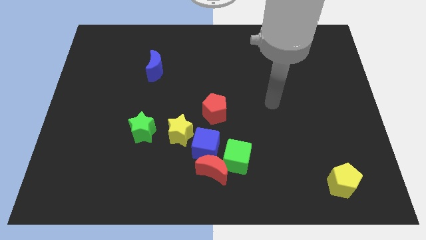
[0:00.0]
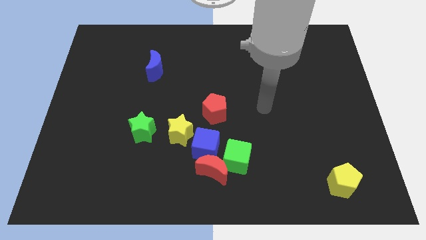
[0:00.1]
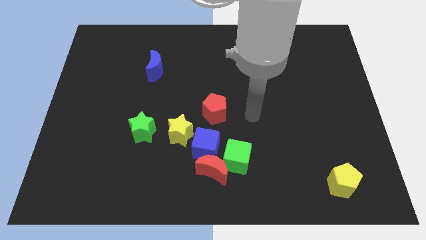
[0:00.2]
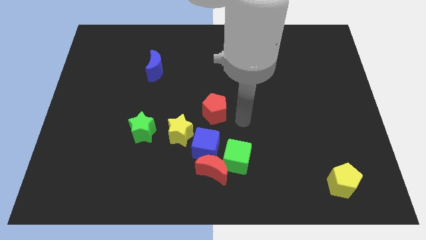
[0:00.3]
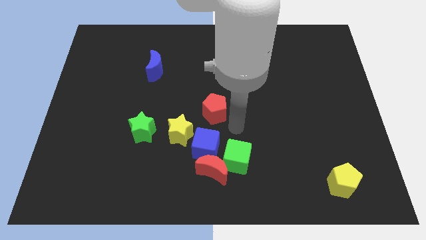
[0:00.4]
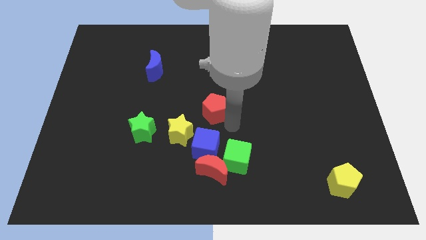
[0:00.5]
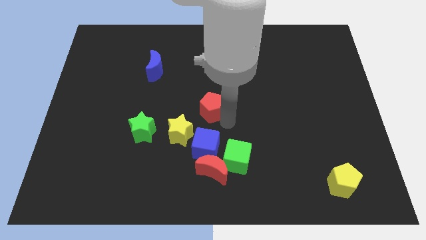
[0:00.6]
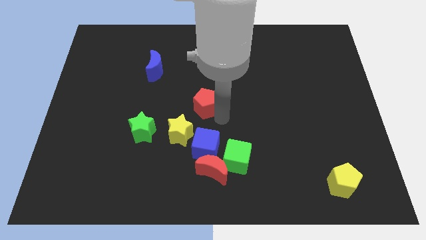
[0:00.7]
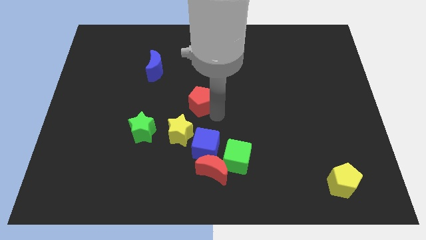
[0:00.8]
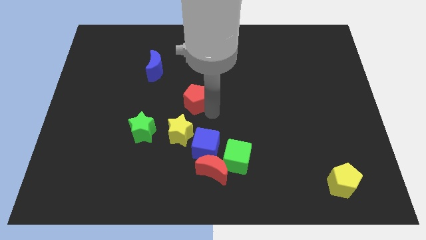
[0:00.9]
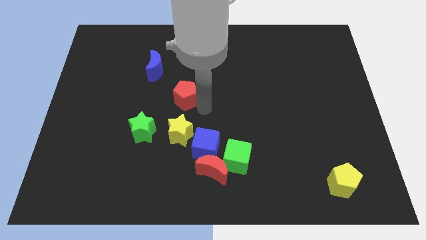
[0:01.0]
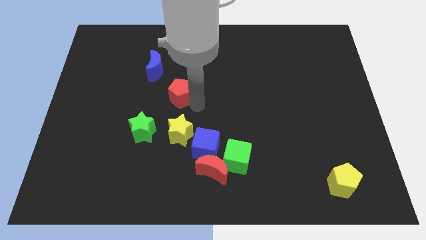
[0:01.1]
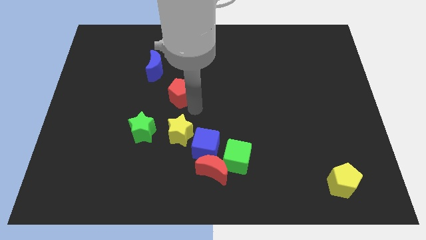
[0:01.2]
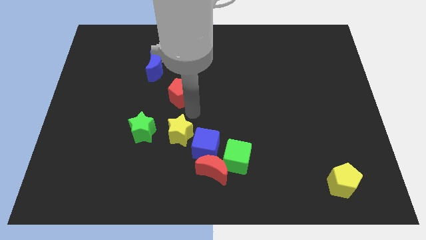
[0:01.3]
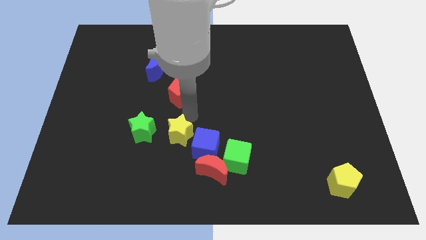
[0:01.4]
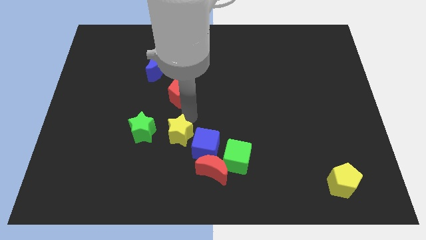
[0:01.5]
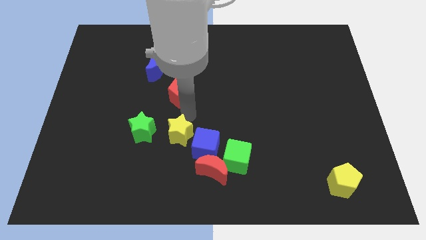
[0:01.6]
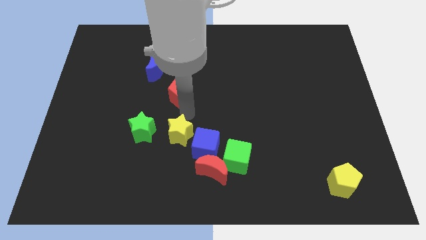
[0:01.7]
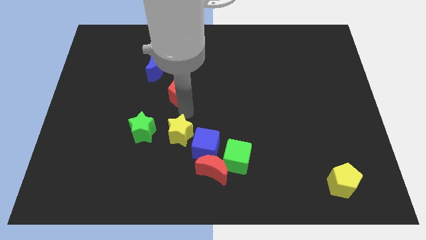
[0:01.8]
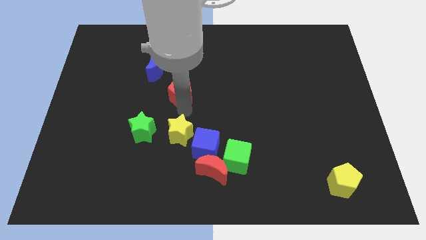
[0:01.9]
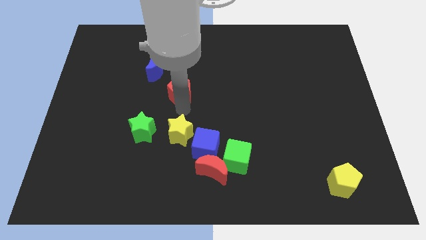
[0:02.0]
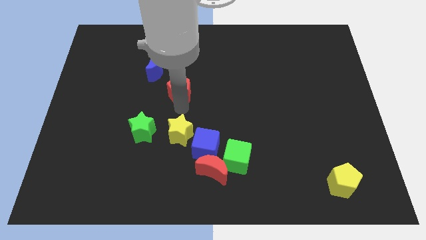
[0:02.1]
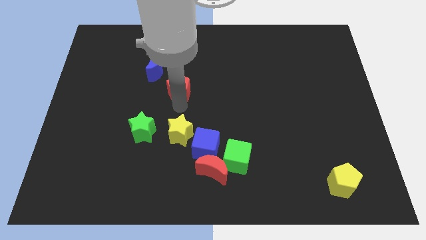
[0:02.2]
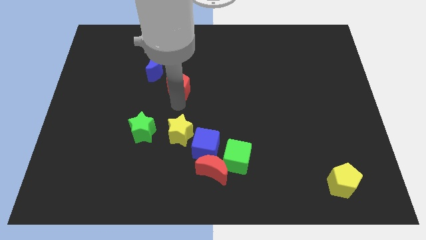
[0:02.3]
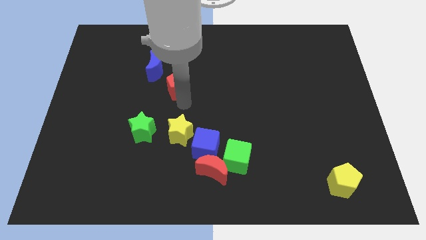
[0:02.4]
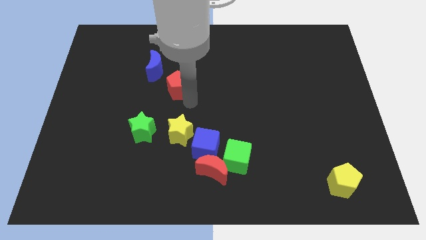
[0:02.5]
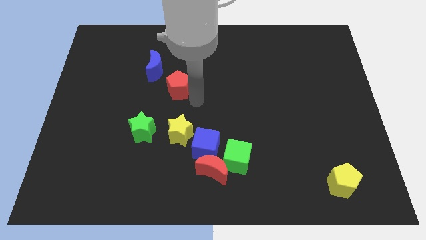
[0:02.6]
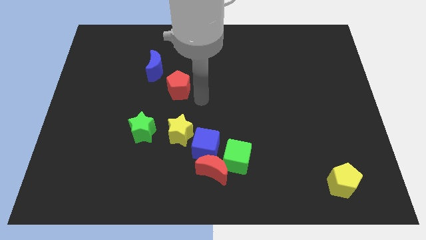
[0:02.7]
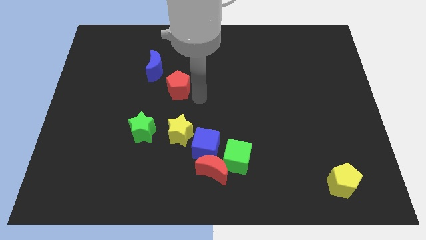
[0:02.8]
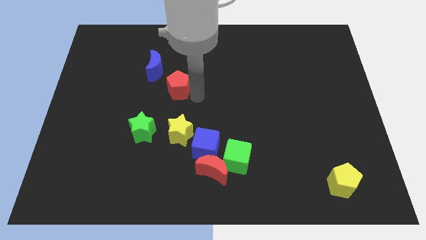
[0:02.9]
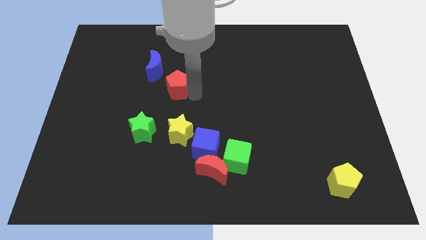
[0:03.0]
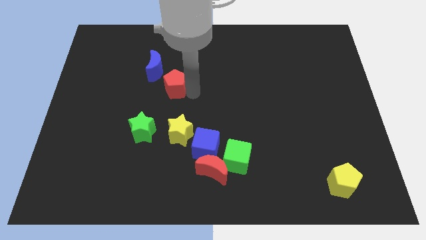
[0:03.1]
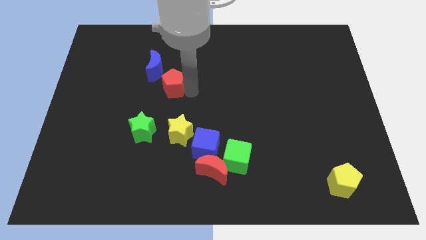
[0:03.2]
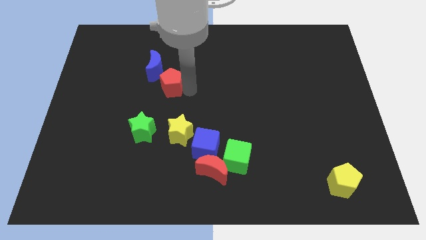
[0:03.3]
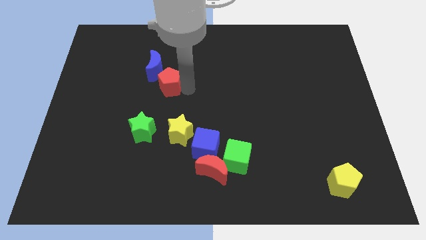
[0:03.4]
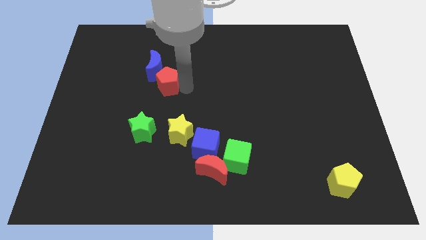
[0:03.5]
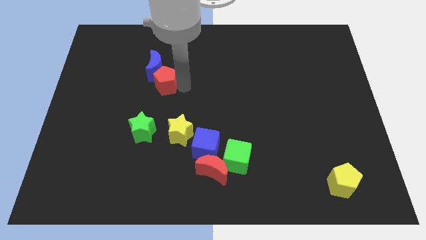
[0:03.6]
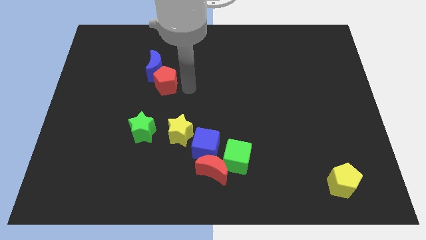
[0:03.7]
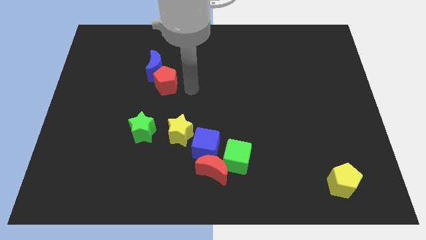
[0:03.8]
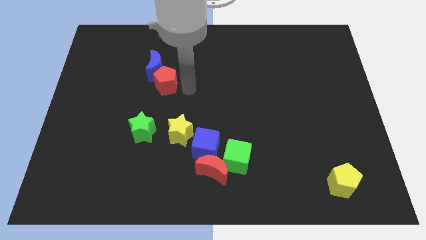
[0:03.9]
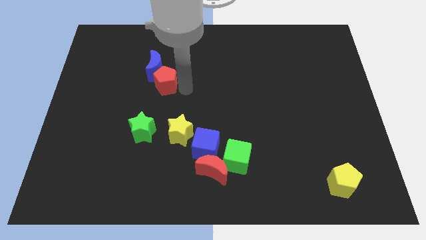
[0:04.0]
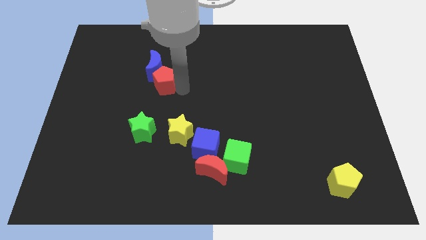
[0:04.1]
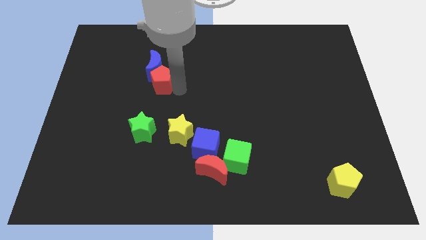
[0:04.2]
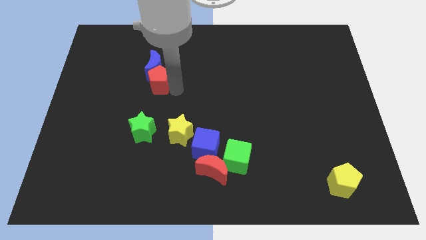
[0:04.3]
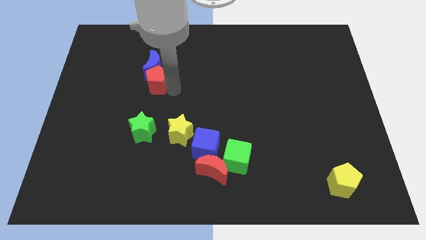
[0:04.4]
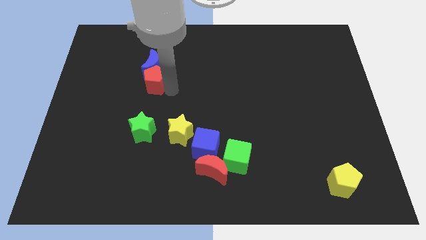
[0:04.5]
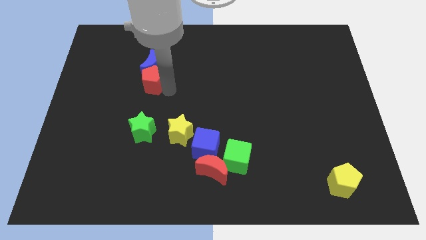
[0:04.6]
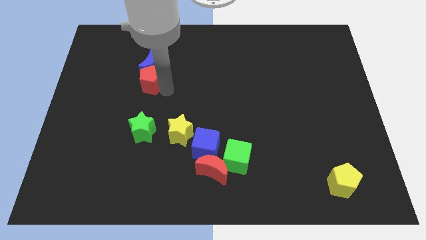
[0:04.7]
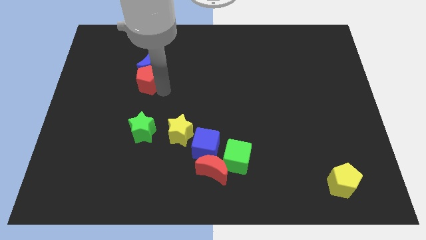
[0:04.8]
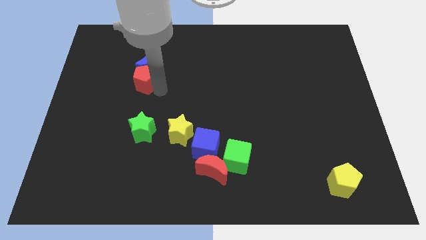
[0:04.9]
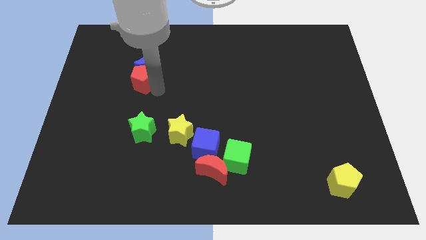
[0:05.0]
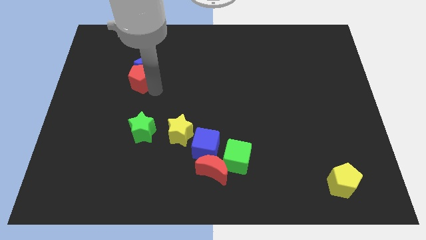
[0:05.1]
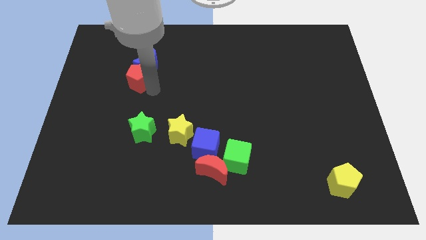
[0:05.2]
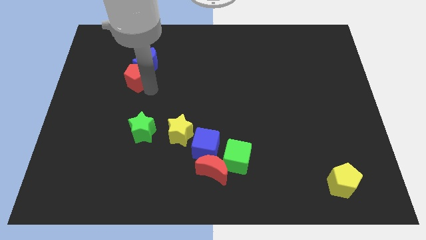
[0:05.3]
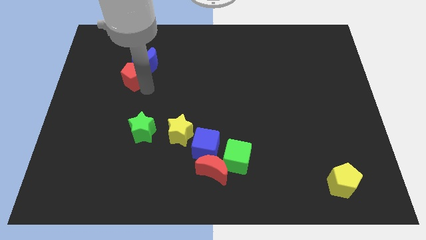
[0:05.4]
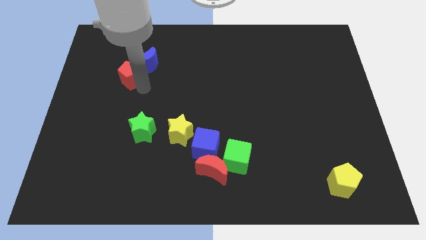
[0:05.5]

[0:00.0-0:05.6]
put the red pentagon to the left side of the blue moon

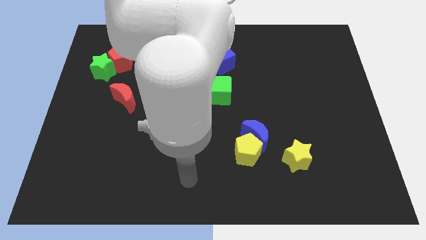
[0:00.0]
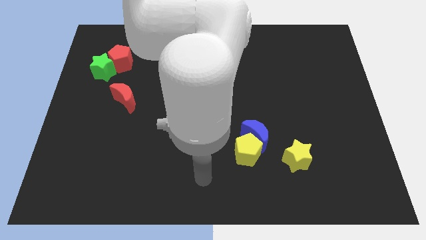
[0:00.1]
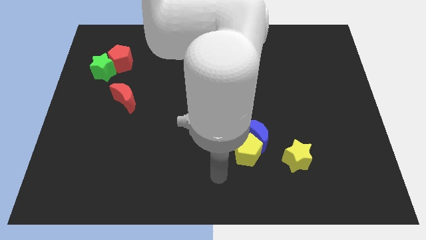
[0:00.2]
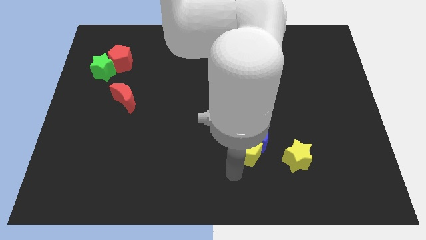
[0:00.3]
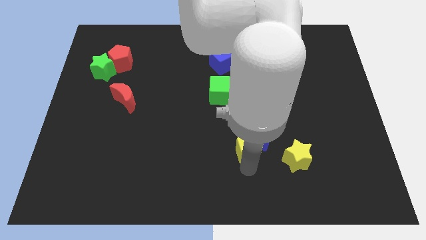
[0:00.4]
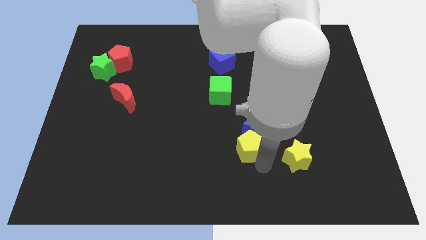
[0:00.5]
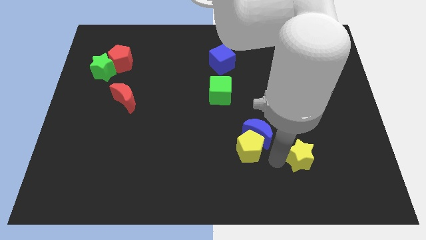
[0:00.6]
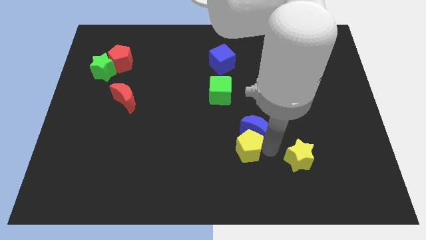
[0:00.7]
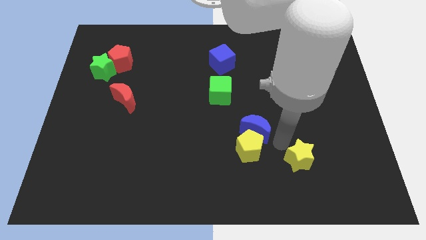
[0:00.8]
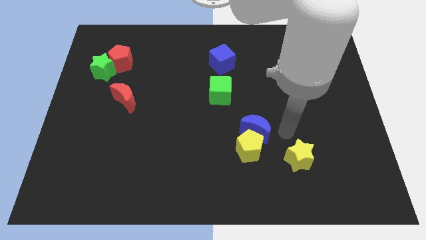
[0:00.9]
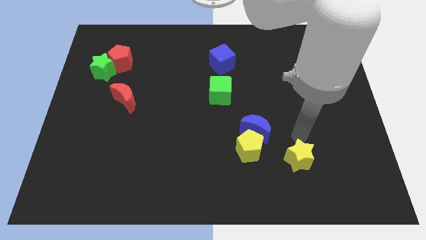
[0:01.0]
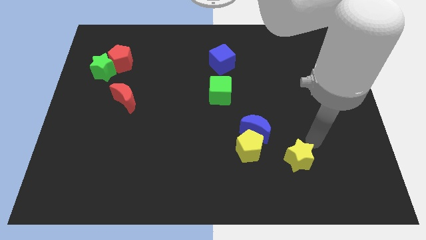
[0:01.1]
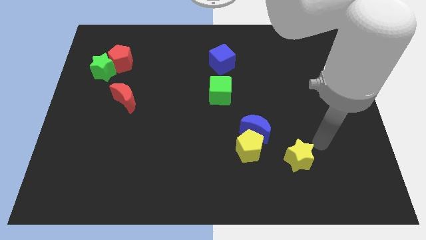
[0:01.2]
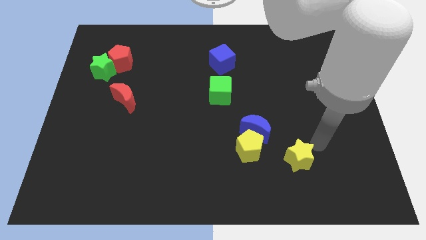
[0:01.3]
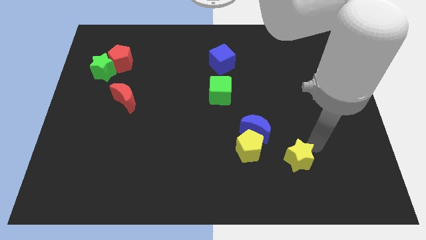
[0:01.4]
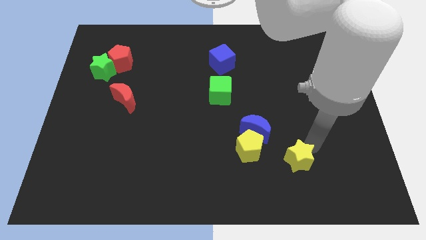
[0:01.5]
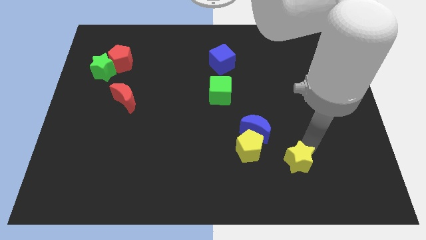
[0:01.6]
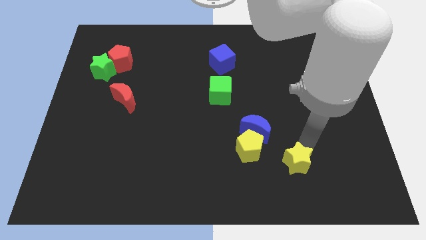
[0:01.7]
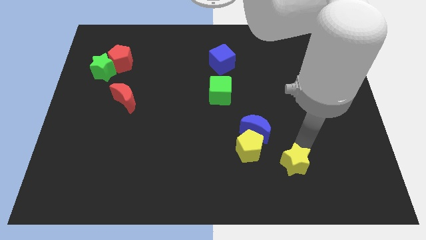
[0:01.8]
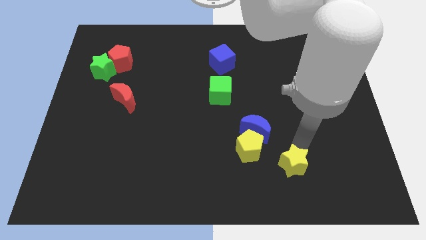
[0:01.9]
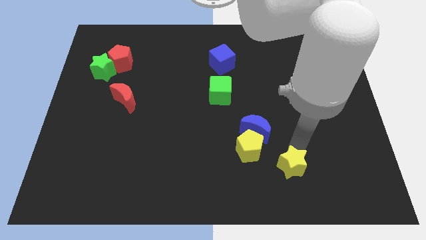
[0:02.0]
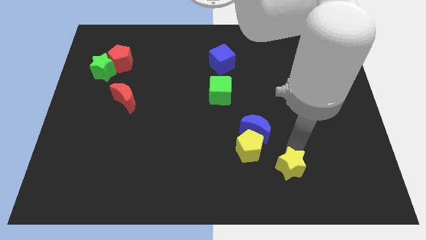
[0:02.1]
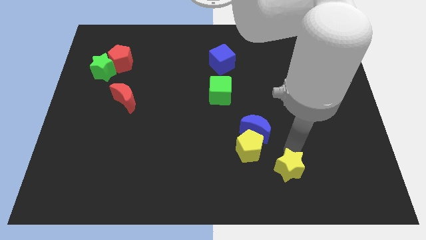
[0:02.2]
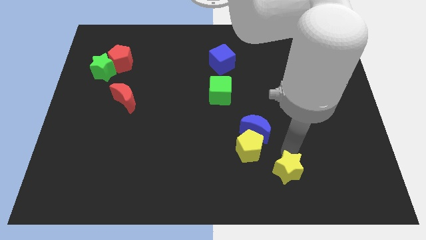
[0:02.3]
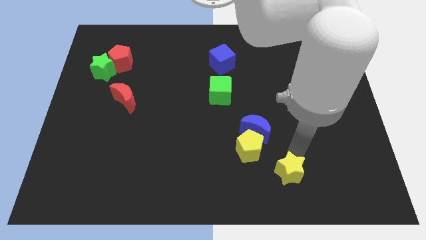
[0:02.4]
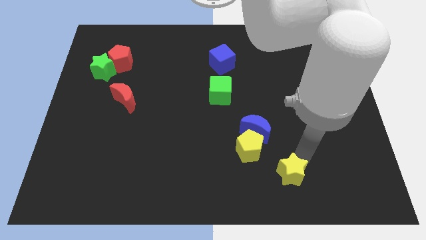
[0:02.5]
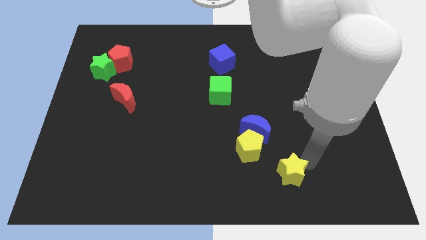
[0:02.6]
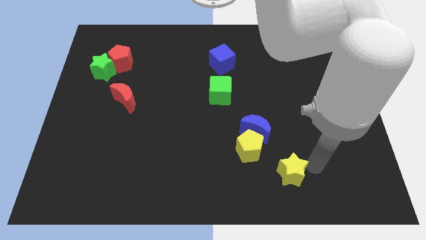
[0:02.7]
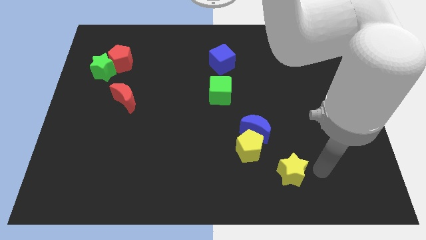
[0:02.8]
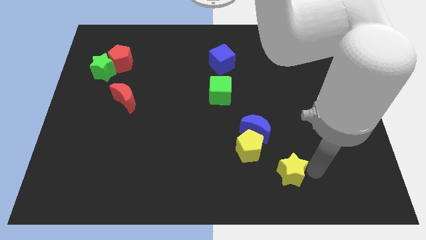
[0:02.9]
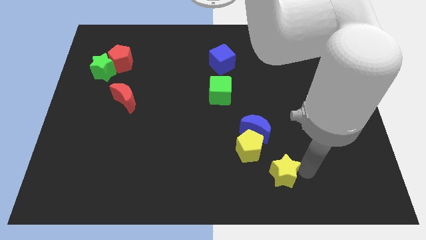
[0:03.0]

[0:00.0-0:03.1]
put the yellow star to the bottom of the blue moon
